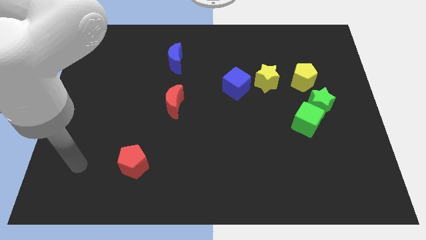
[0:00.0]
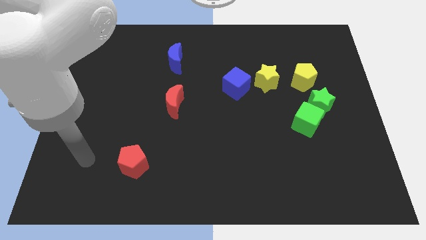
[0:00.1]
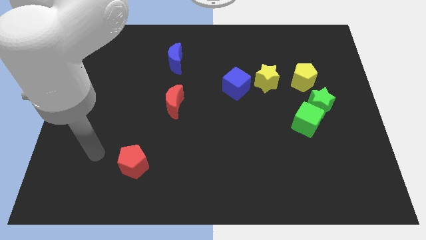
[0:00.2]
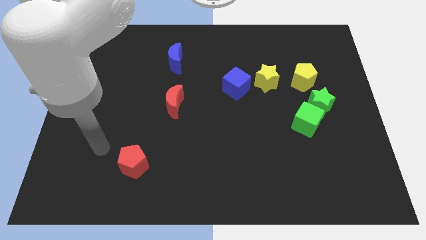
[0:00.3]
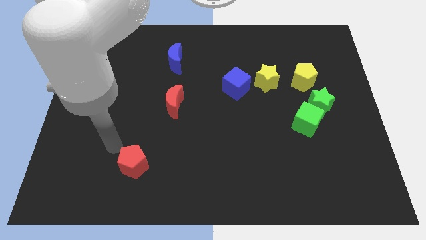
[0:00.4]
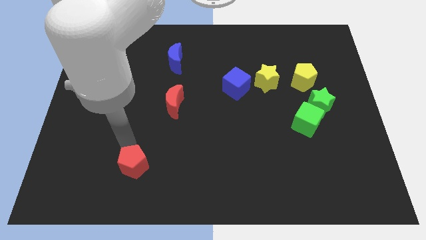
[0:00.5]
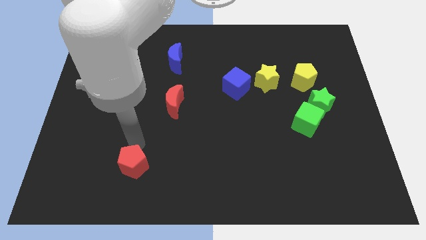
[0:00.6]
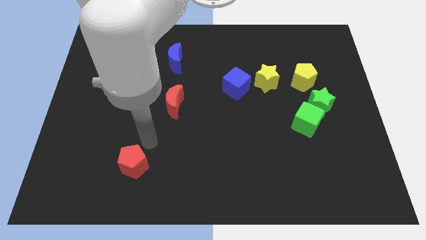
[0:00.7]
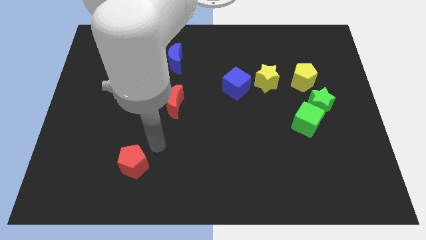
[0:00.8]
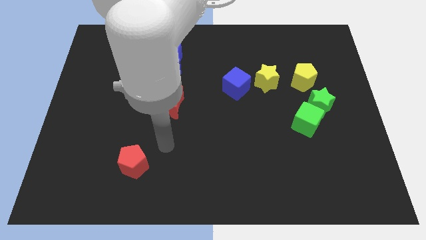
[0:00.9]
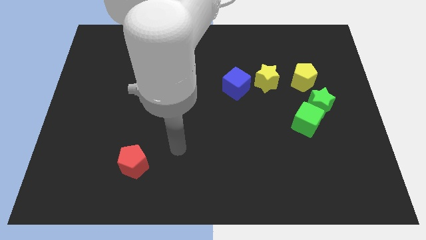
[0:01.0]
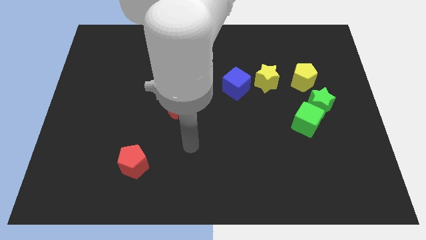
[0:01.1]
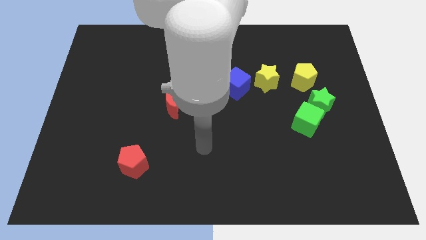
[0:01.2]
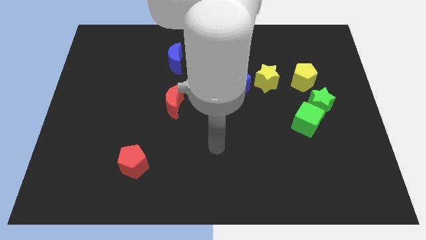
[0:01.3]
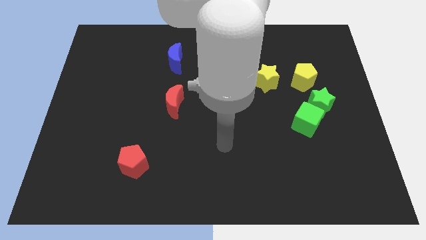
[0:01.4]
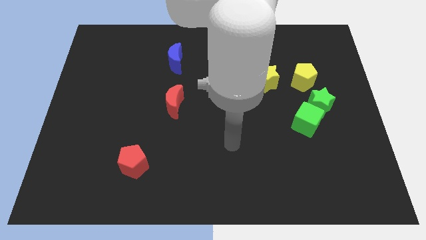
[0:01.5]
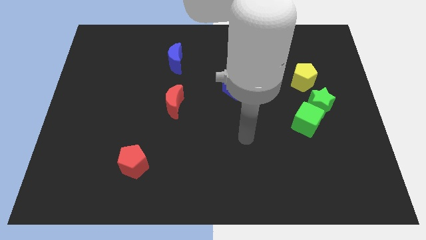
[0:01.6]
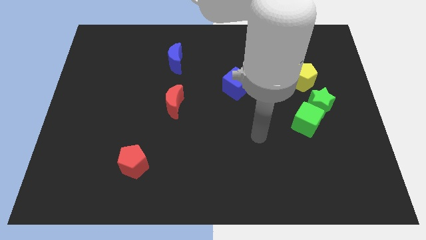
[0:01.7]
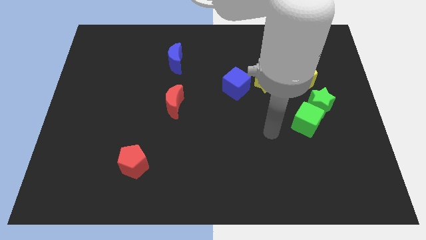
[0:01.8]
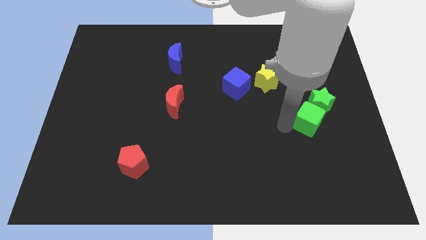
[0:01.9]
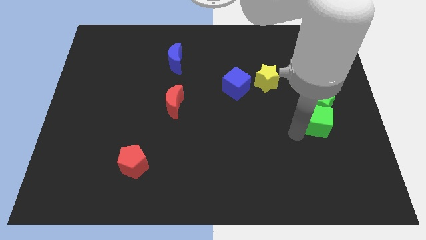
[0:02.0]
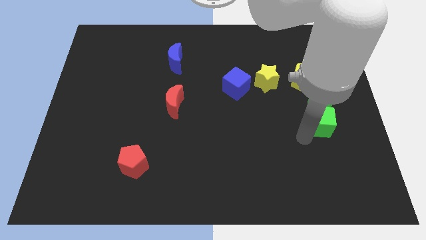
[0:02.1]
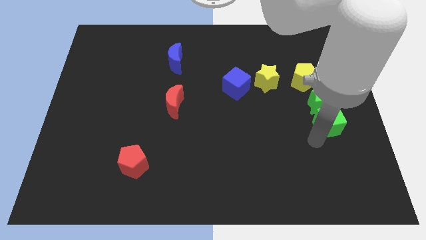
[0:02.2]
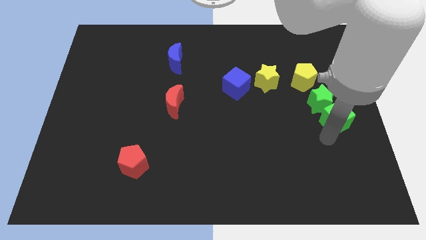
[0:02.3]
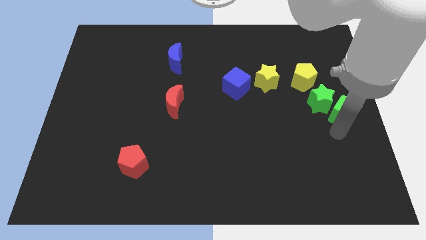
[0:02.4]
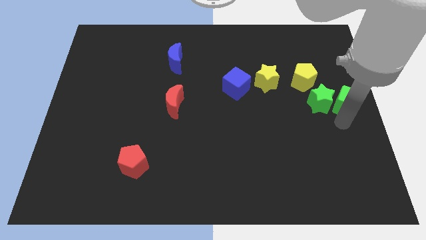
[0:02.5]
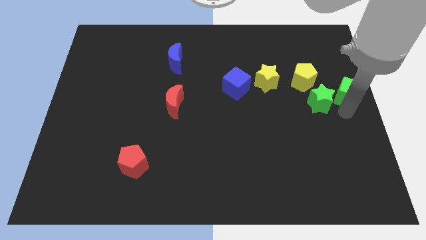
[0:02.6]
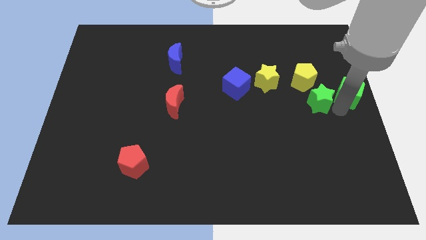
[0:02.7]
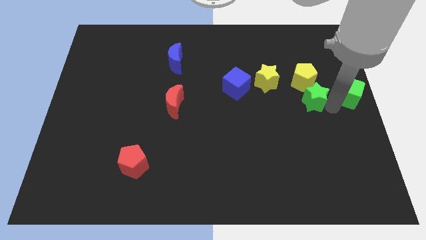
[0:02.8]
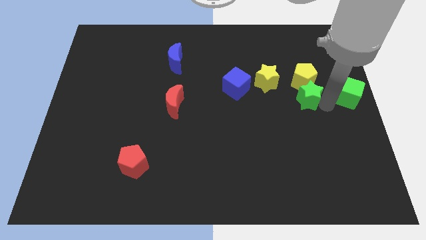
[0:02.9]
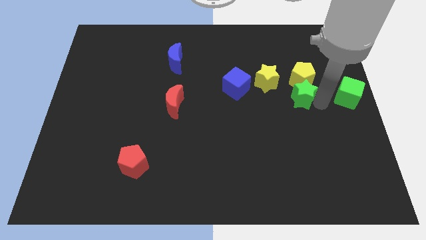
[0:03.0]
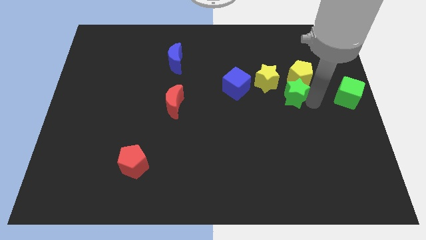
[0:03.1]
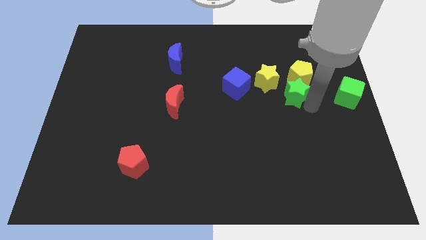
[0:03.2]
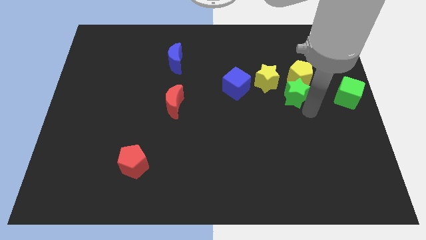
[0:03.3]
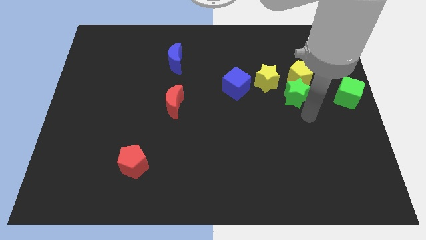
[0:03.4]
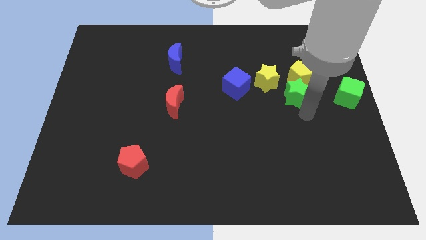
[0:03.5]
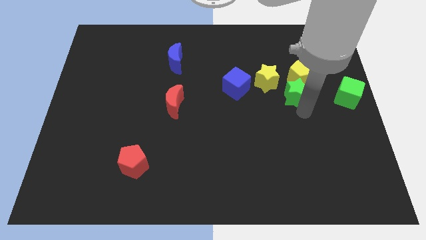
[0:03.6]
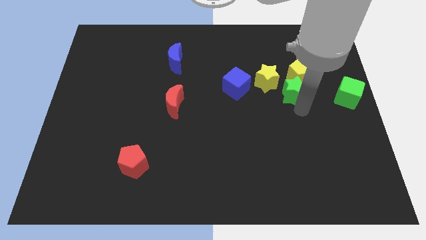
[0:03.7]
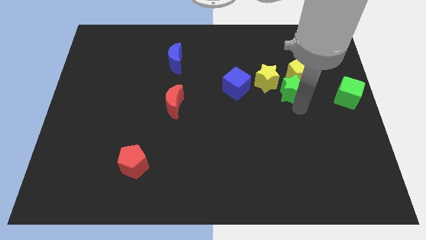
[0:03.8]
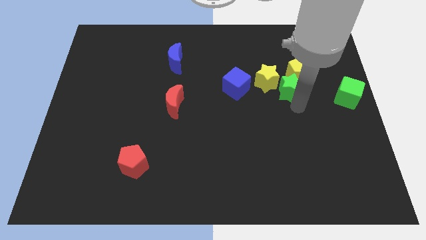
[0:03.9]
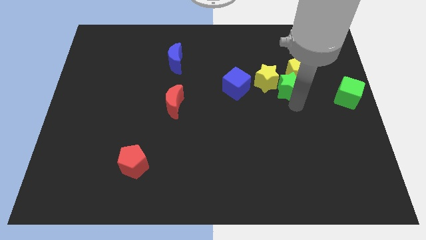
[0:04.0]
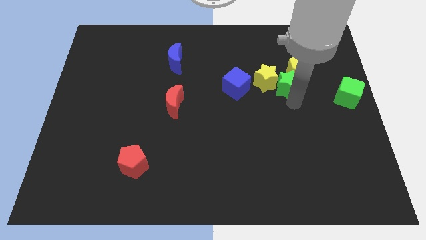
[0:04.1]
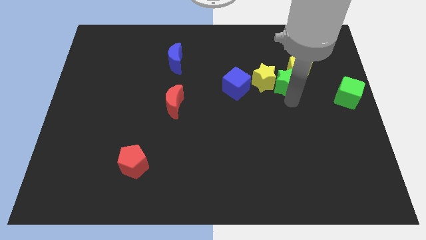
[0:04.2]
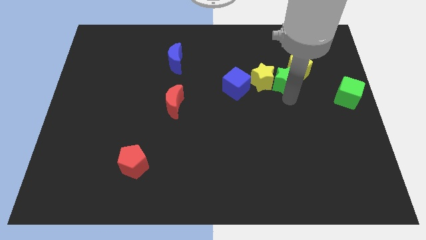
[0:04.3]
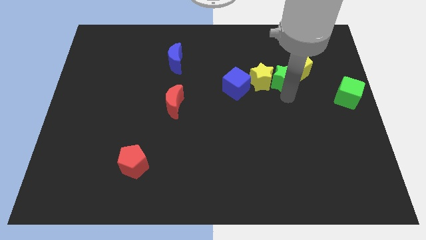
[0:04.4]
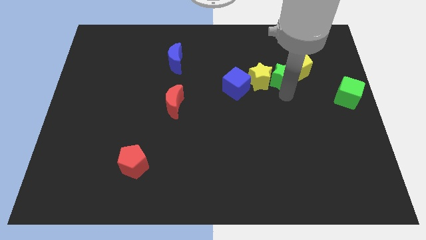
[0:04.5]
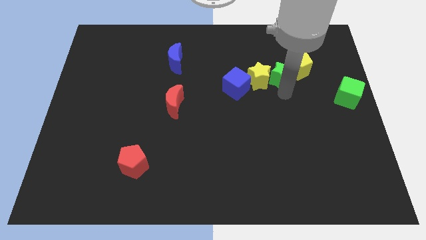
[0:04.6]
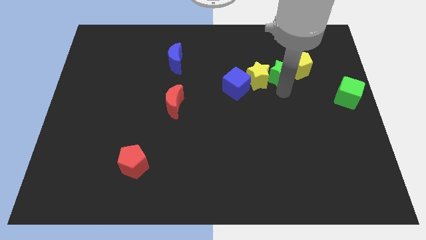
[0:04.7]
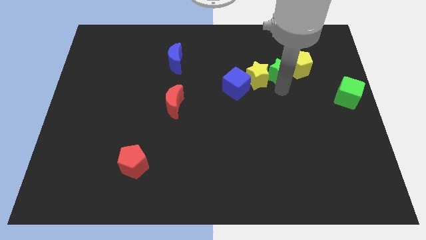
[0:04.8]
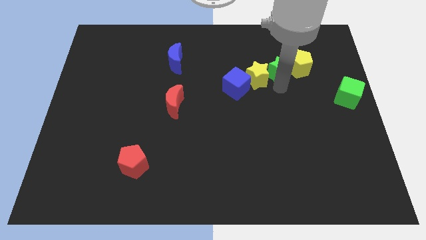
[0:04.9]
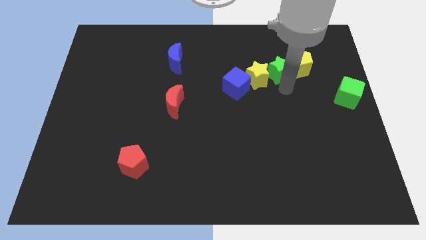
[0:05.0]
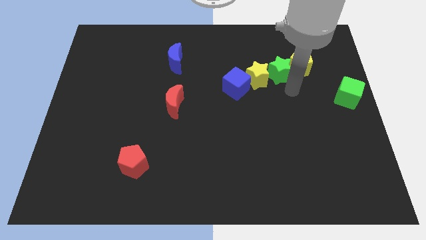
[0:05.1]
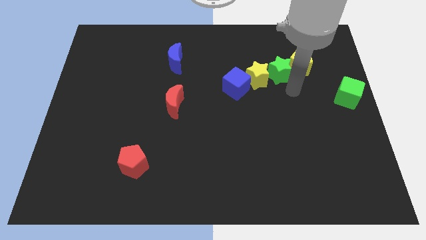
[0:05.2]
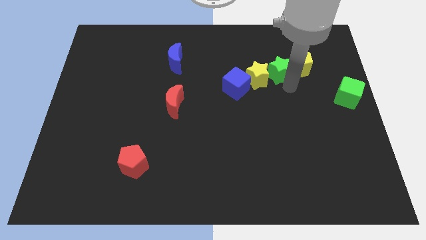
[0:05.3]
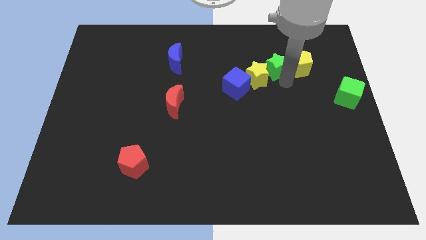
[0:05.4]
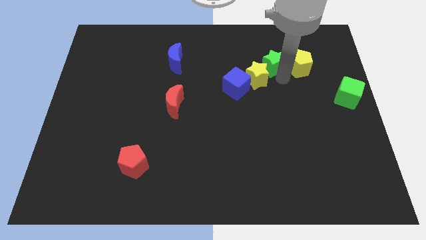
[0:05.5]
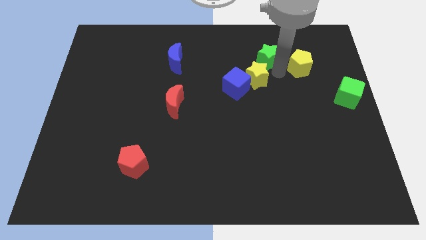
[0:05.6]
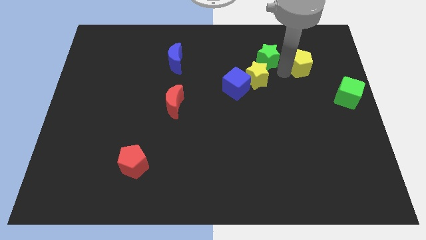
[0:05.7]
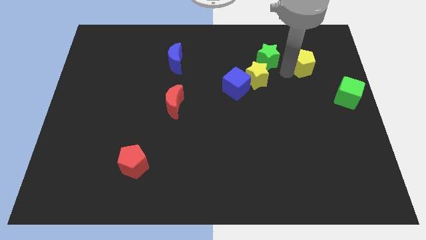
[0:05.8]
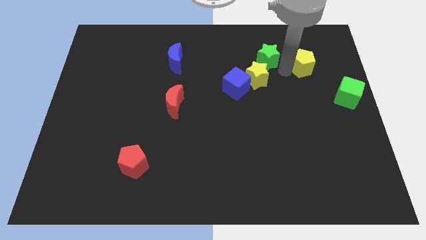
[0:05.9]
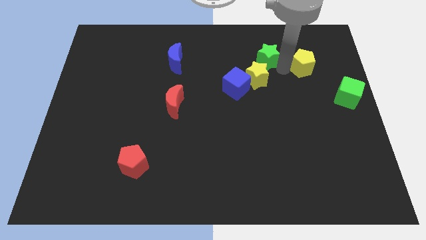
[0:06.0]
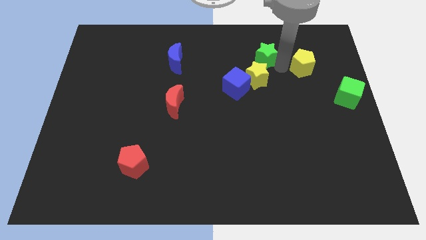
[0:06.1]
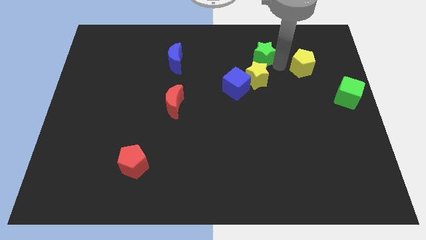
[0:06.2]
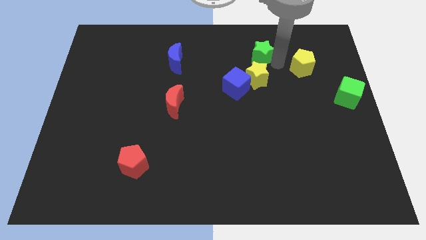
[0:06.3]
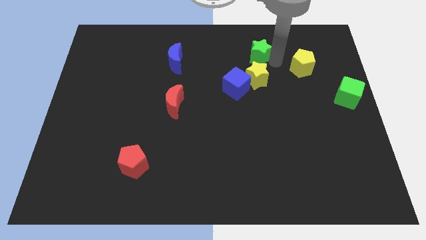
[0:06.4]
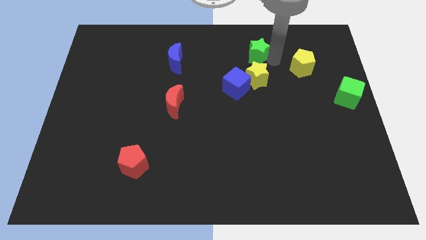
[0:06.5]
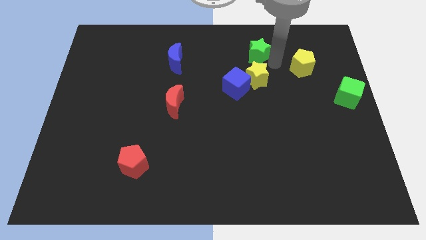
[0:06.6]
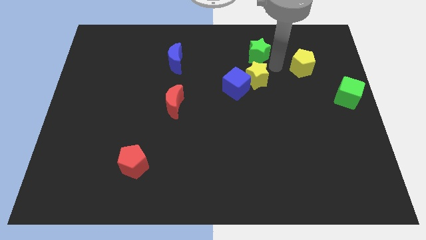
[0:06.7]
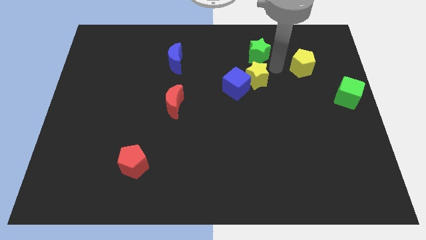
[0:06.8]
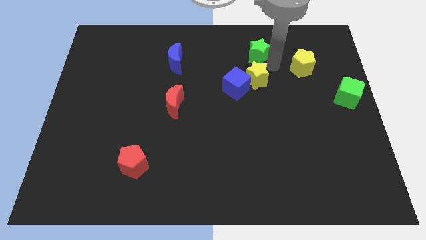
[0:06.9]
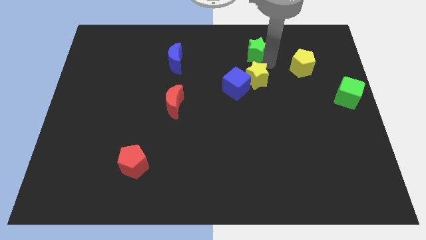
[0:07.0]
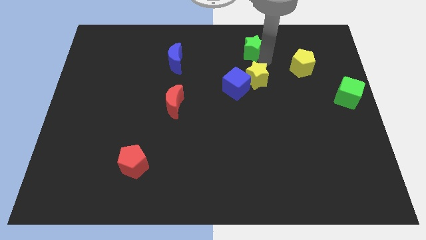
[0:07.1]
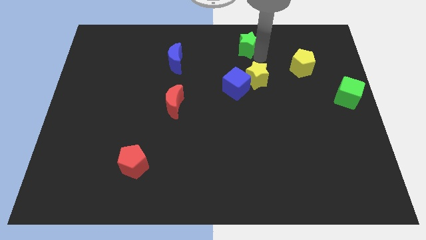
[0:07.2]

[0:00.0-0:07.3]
put the green star to the top side
